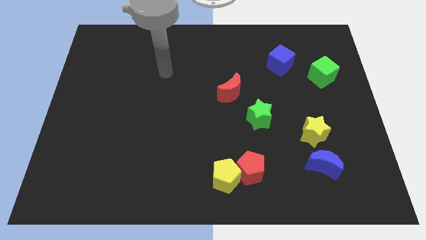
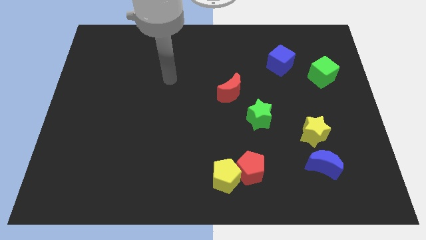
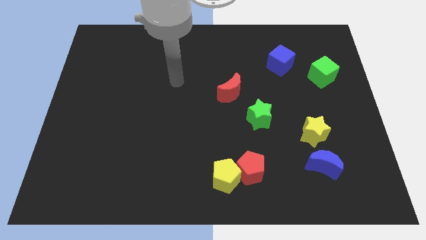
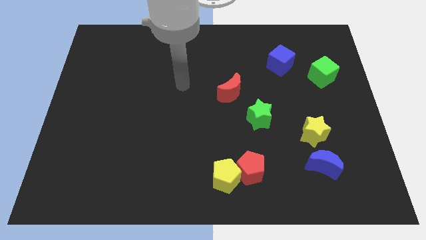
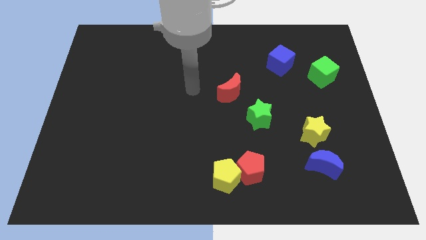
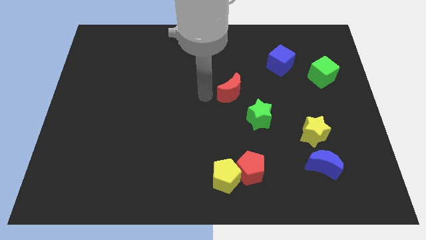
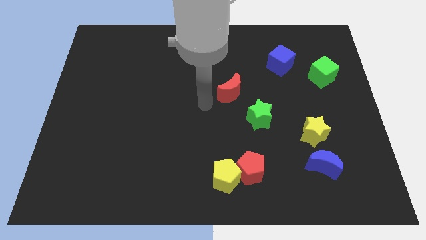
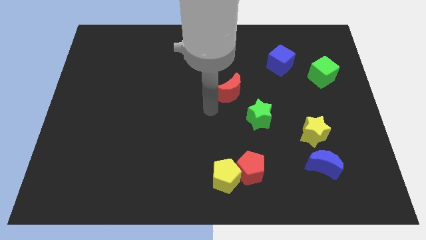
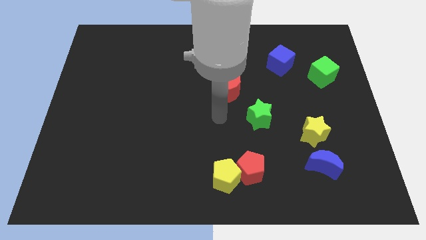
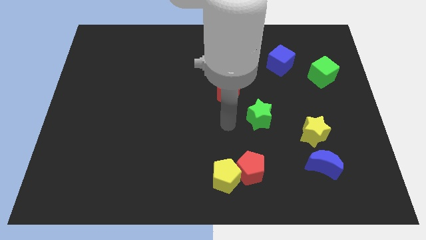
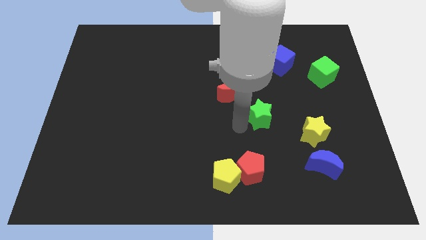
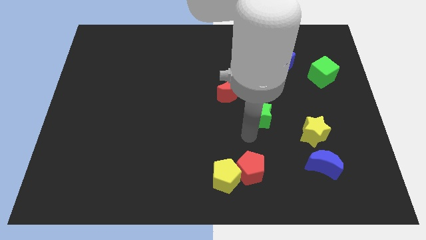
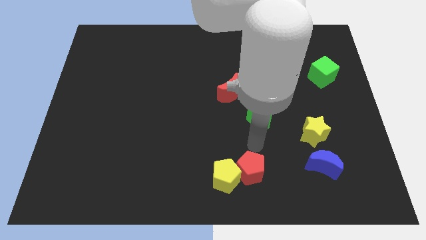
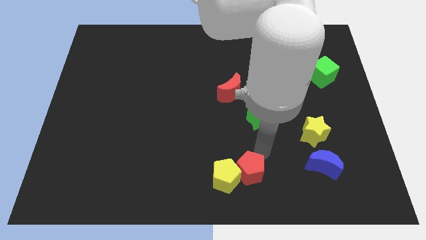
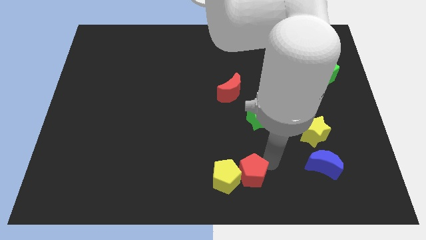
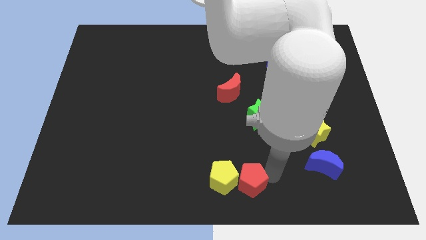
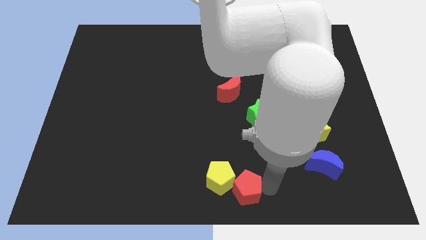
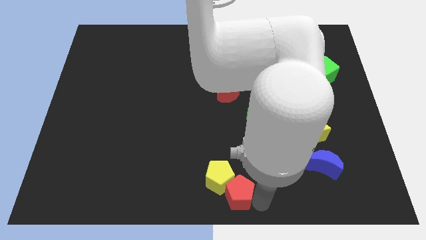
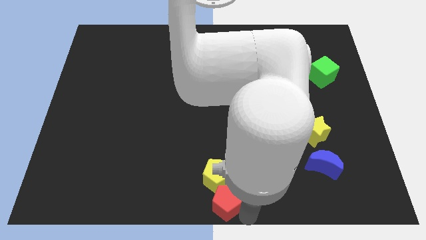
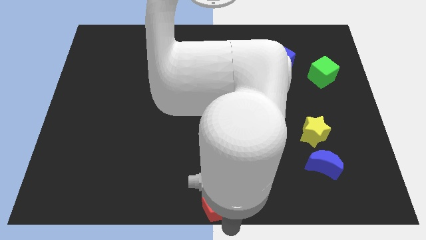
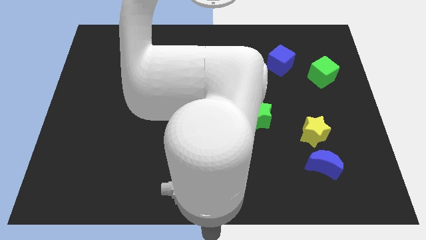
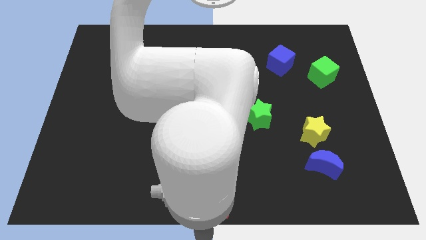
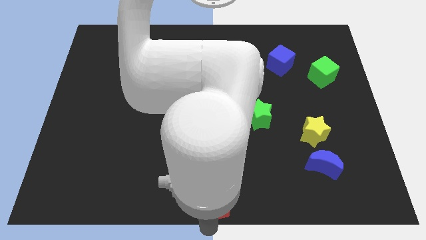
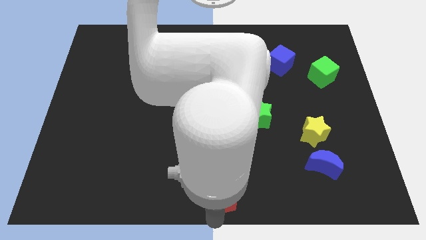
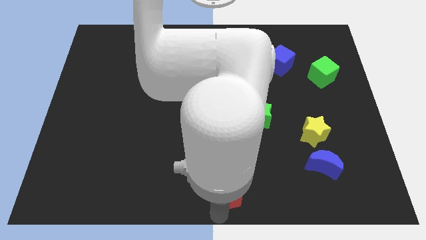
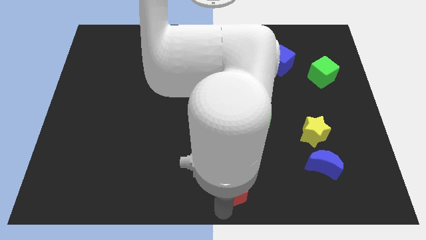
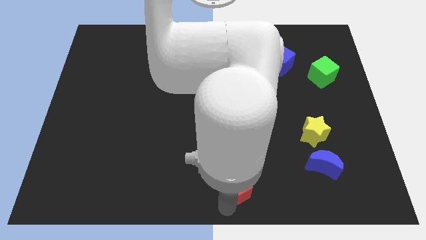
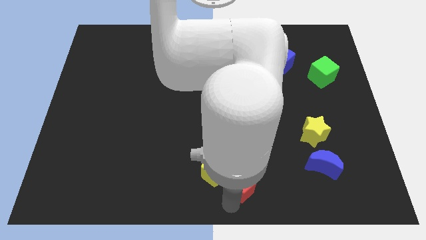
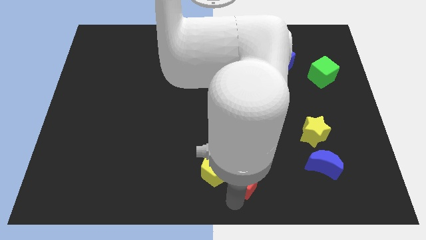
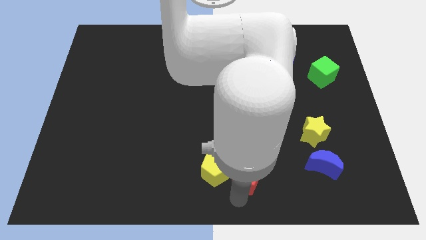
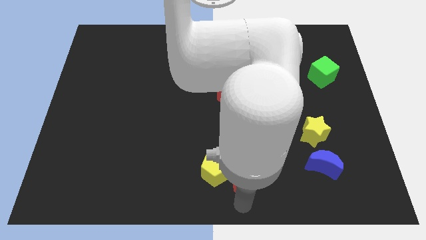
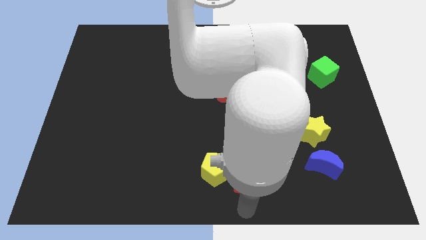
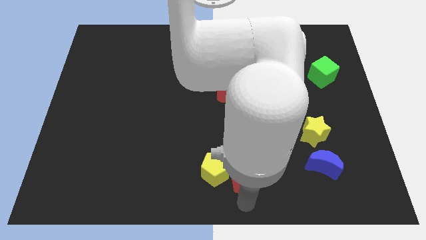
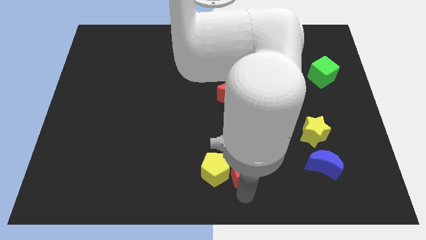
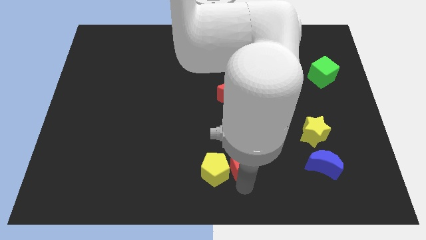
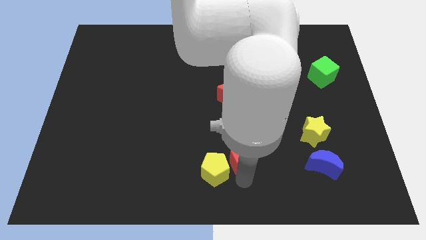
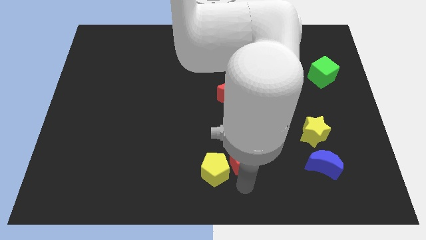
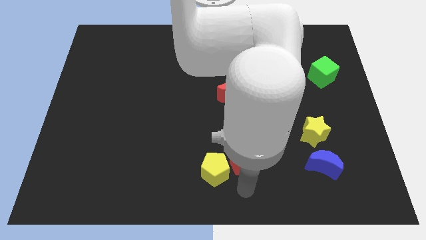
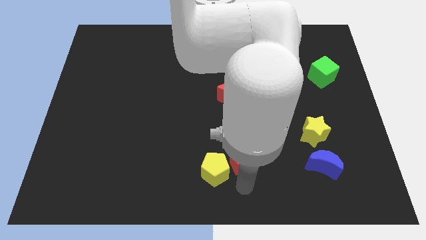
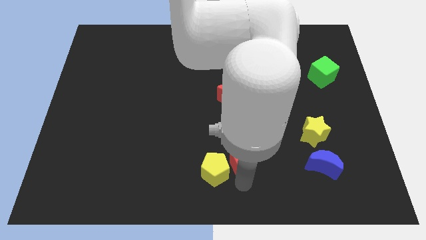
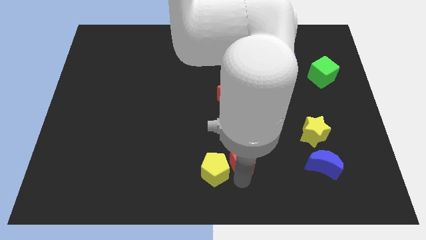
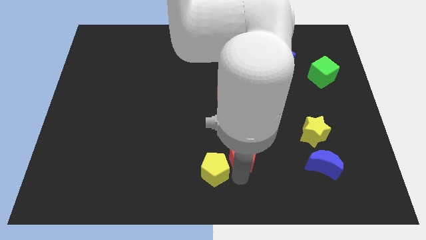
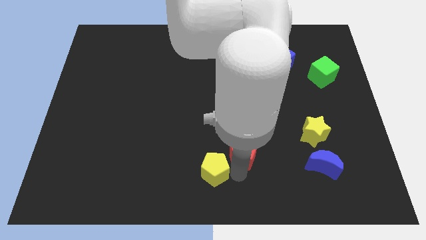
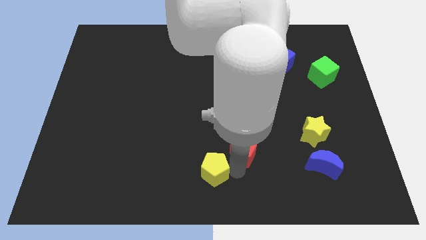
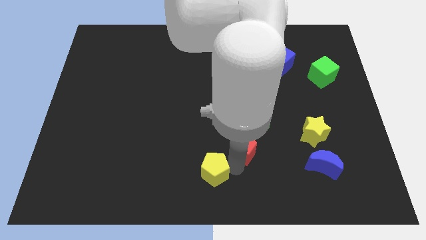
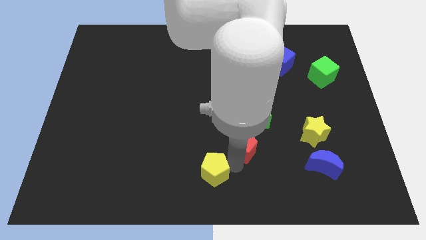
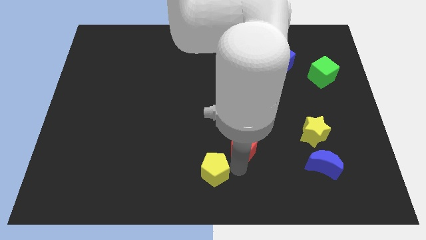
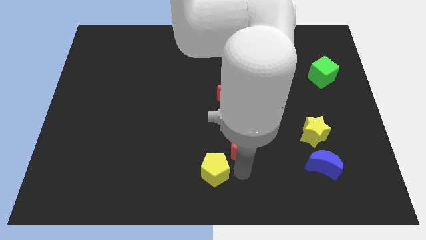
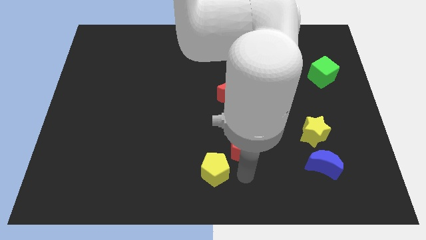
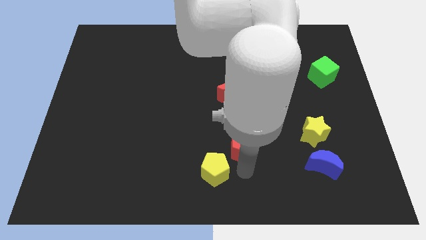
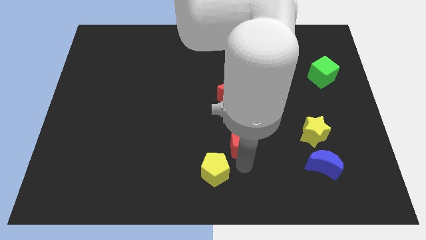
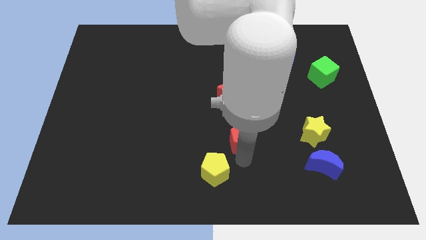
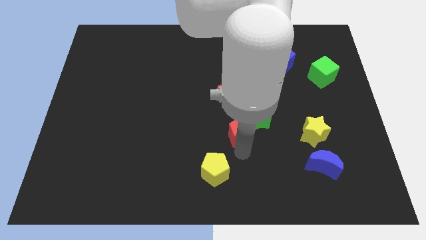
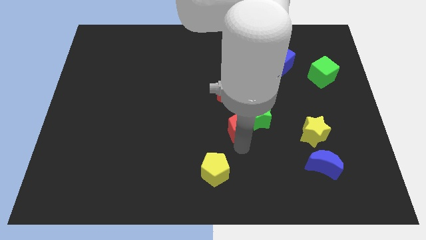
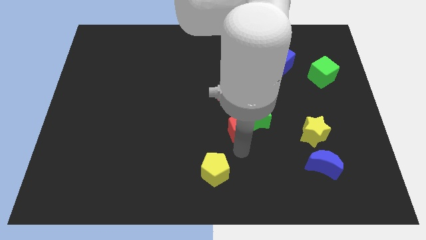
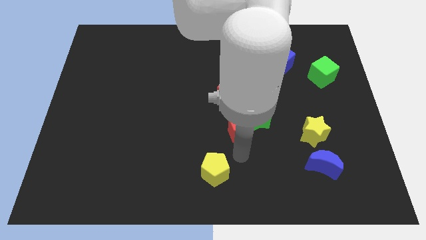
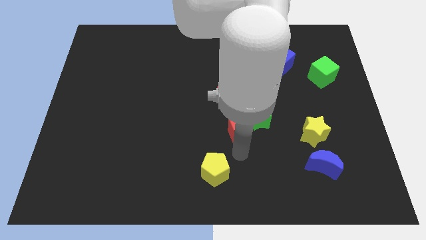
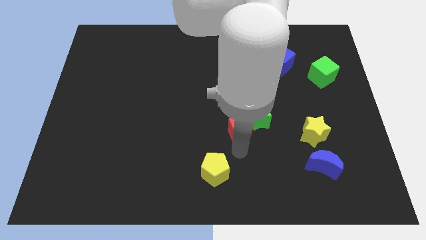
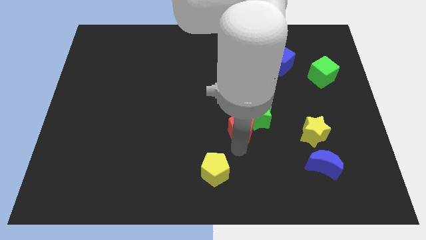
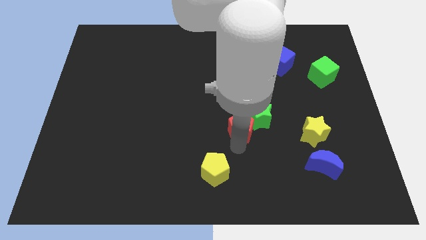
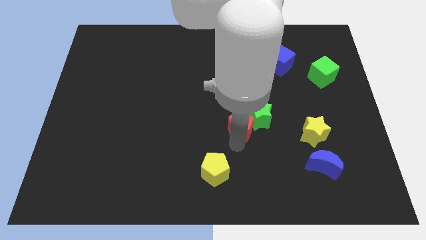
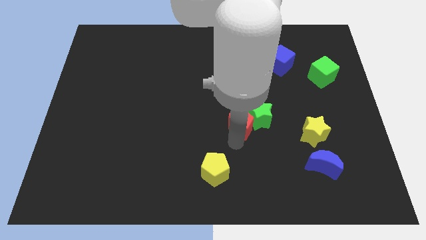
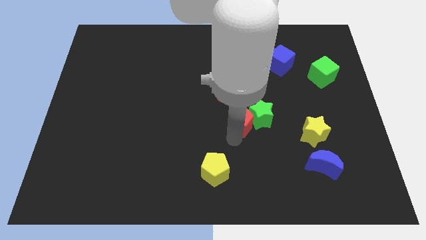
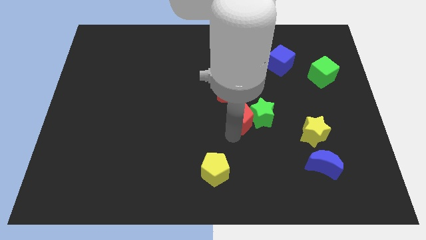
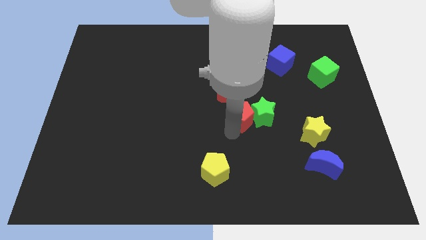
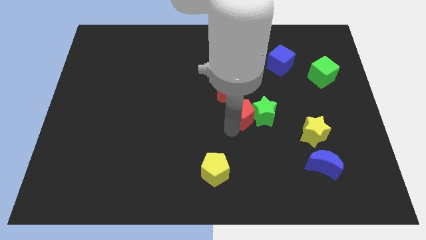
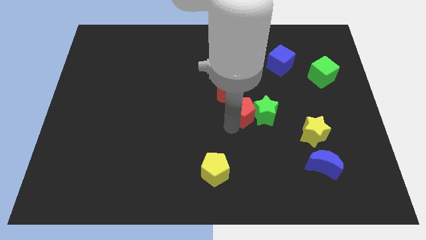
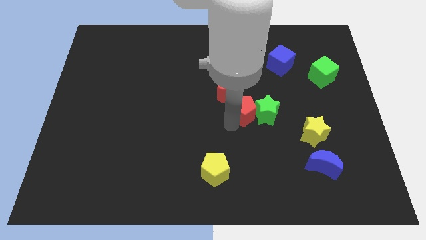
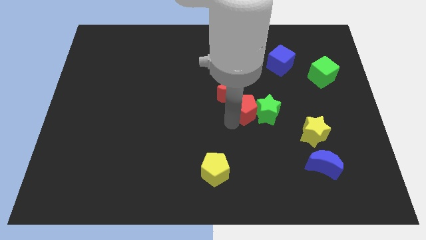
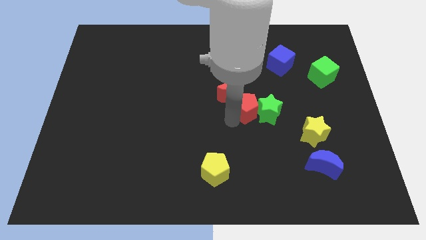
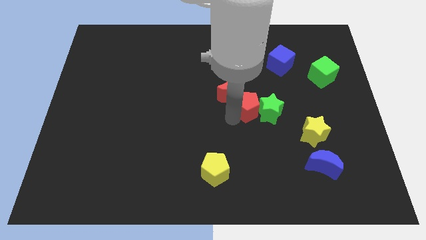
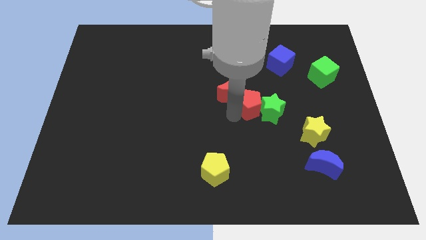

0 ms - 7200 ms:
move the red pentagon to the right of the red moon

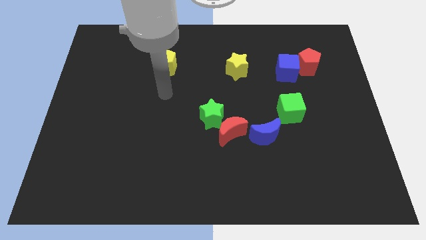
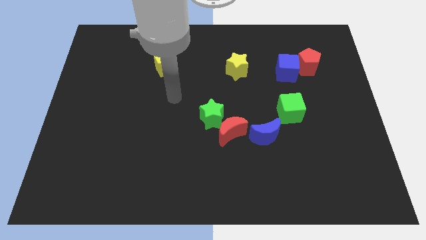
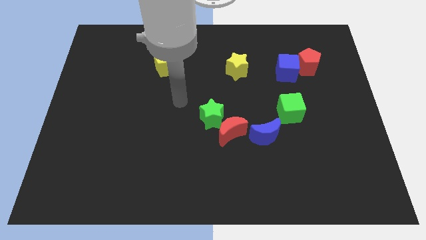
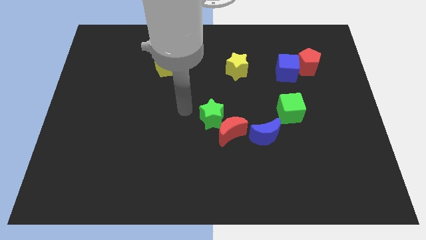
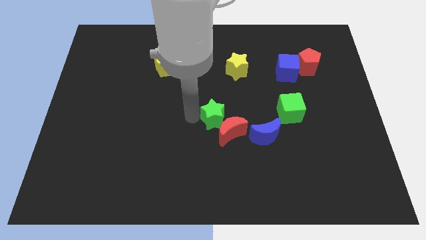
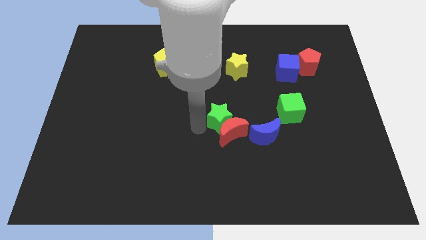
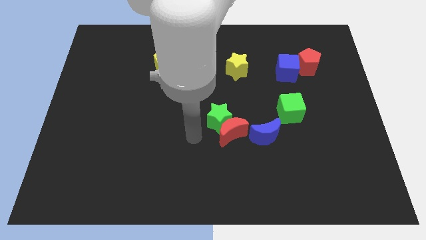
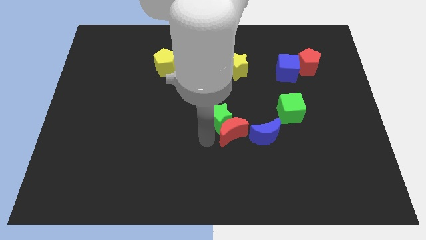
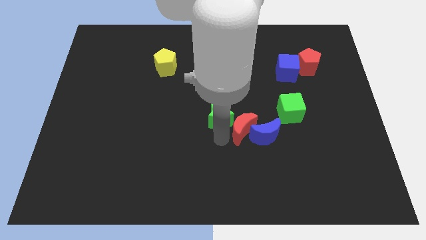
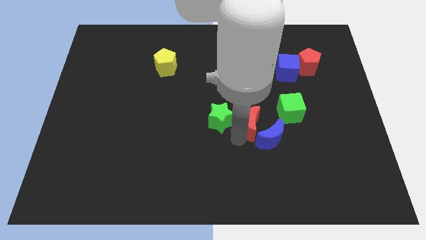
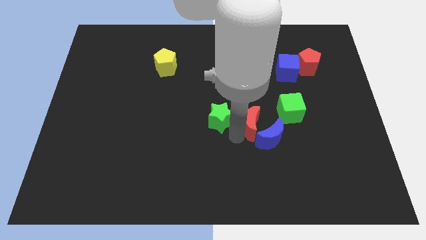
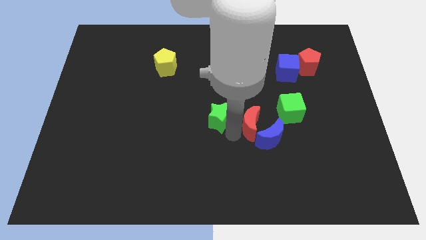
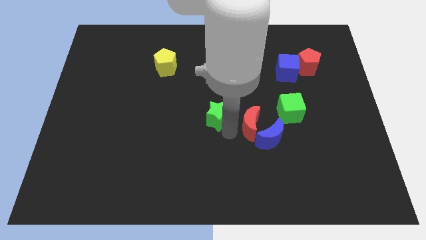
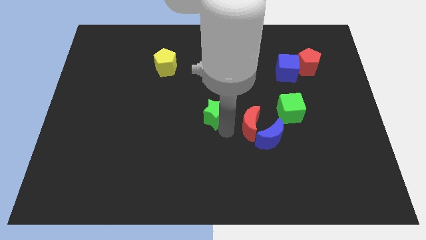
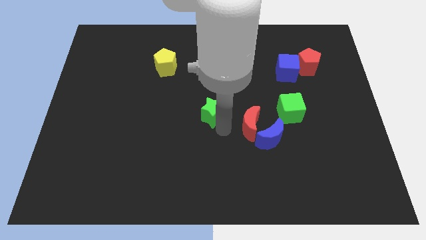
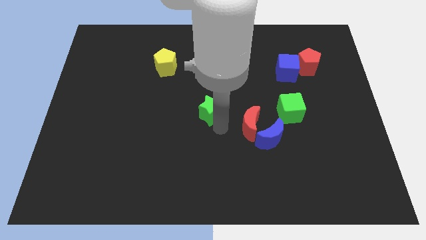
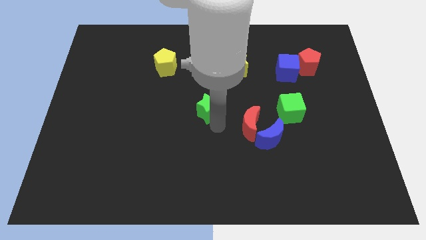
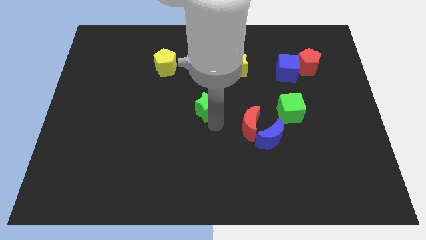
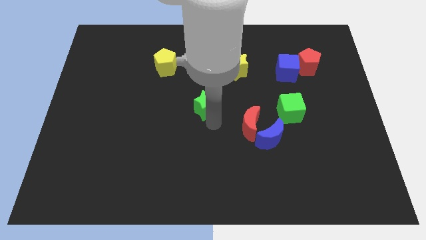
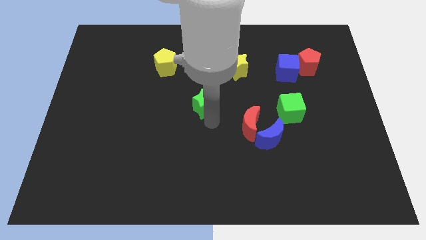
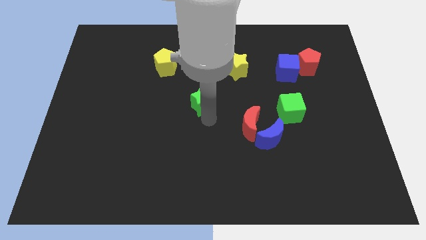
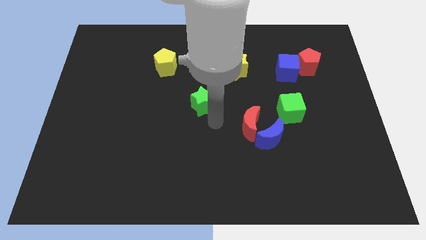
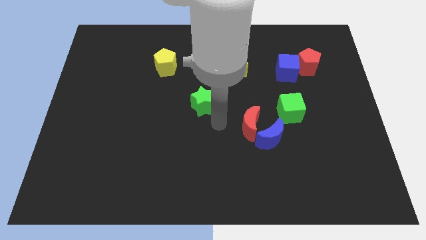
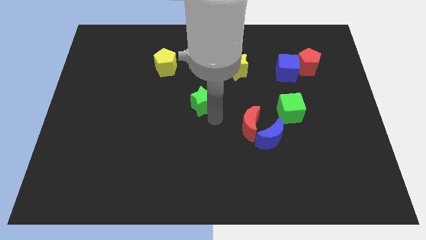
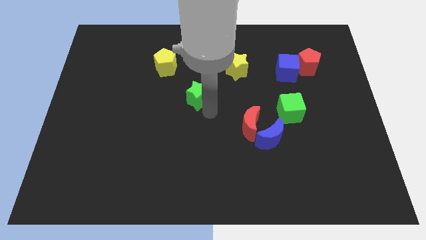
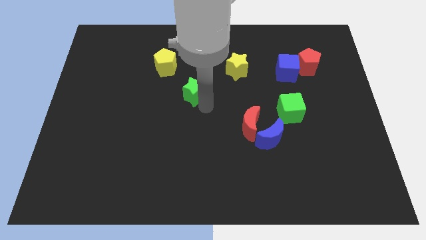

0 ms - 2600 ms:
push the green star diagonally down and to the right of the yellow pentagon
